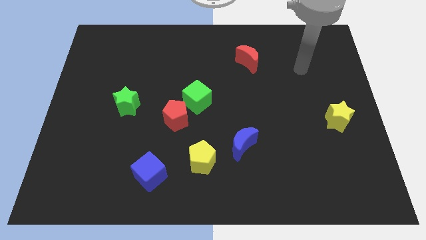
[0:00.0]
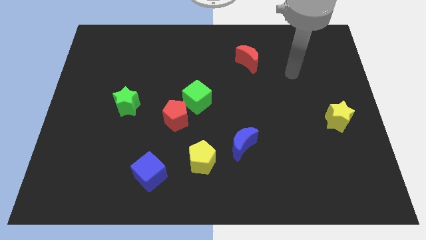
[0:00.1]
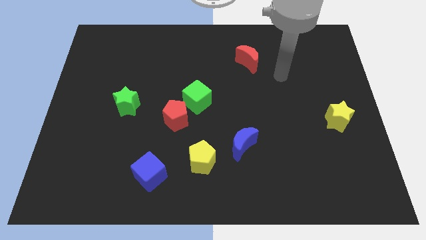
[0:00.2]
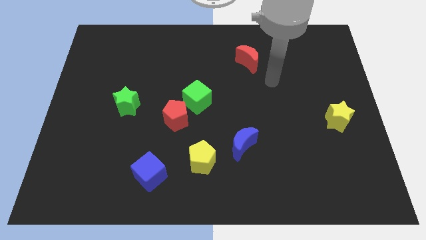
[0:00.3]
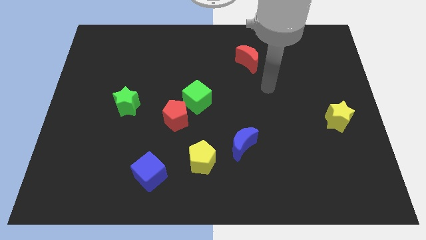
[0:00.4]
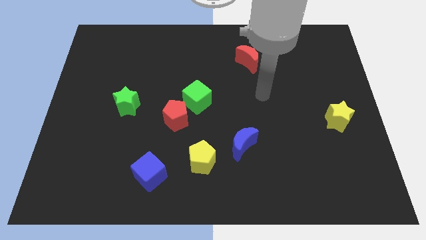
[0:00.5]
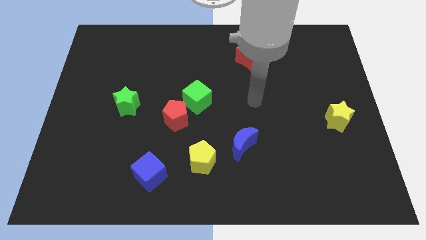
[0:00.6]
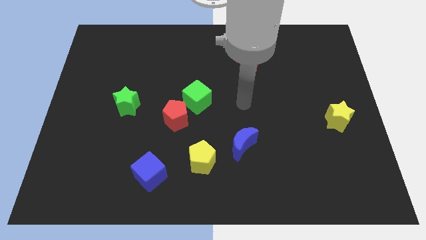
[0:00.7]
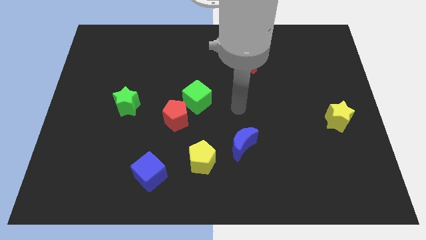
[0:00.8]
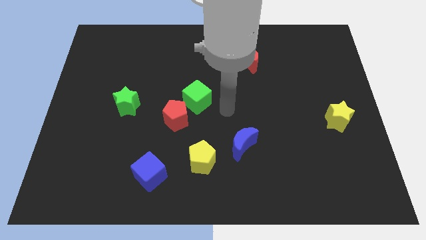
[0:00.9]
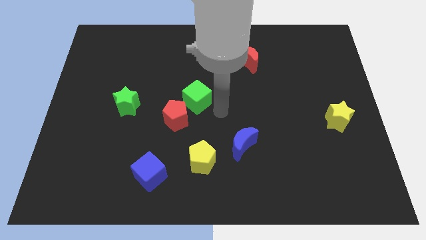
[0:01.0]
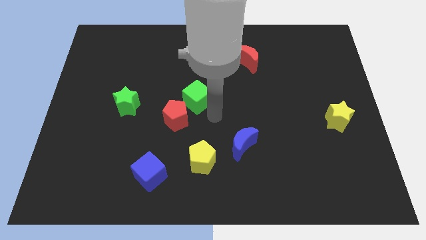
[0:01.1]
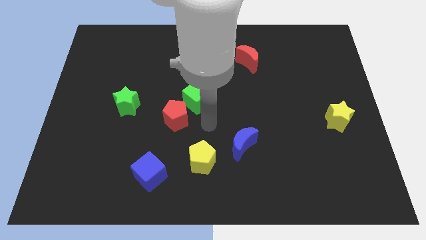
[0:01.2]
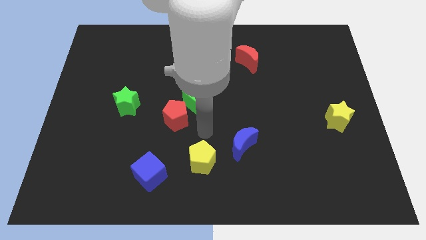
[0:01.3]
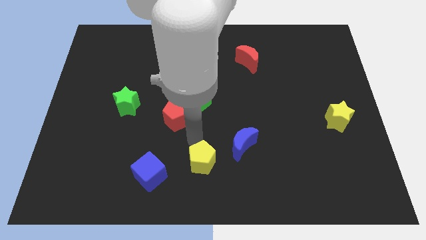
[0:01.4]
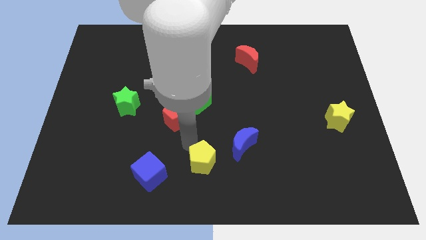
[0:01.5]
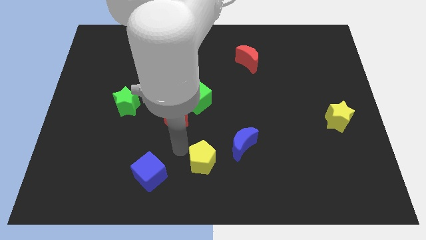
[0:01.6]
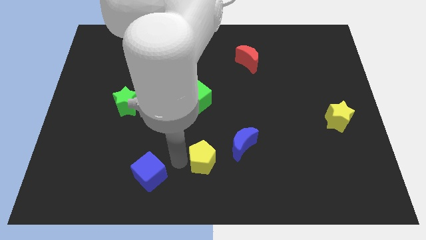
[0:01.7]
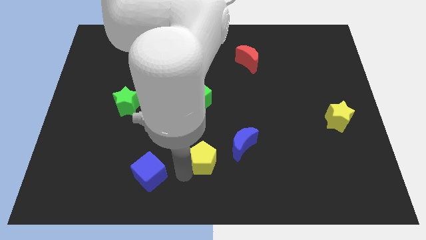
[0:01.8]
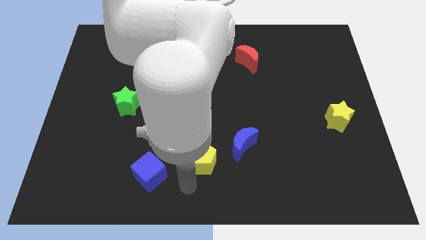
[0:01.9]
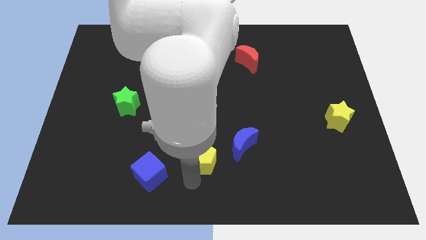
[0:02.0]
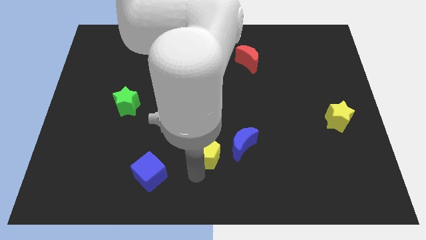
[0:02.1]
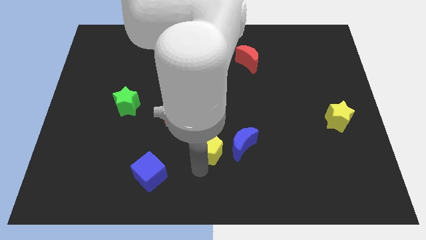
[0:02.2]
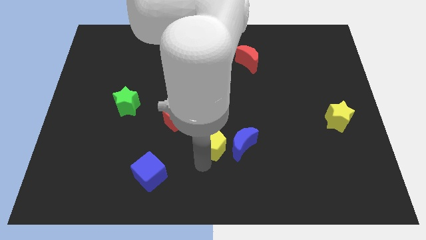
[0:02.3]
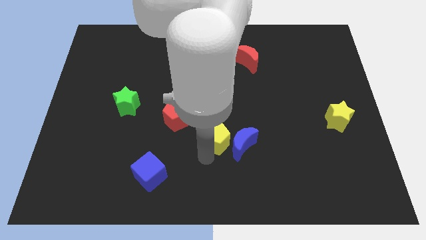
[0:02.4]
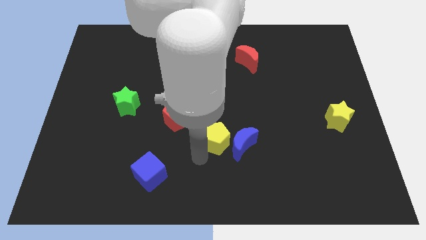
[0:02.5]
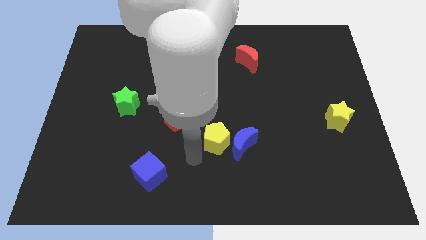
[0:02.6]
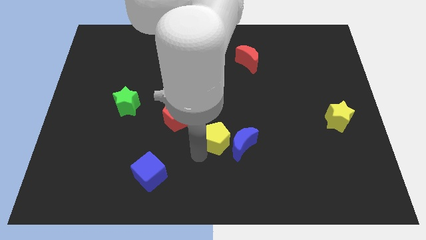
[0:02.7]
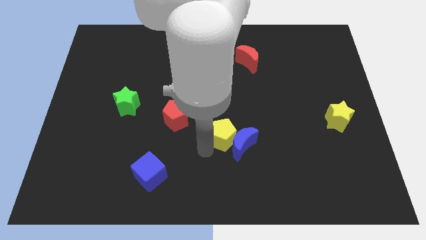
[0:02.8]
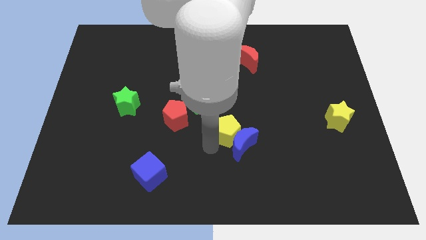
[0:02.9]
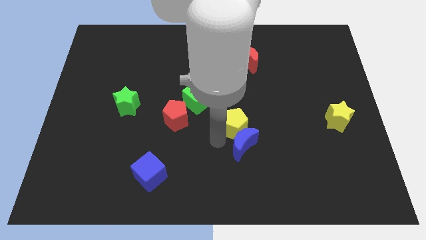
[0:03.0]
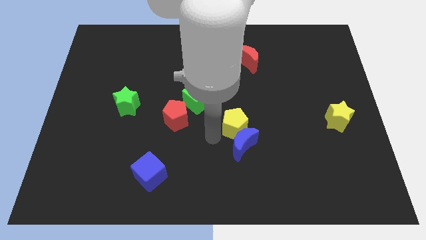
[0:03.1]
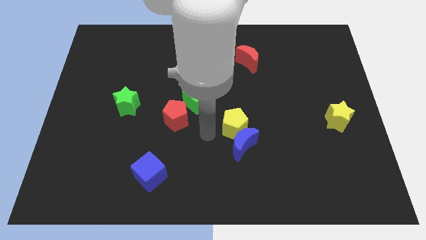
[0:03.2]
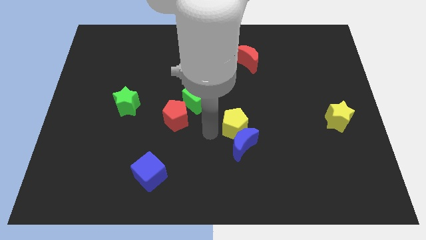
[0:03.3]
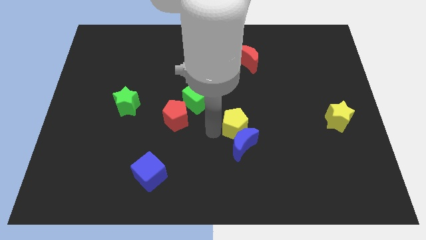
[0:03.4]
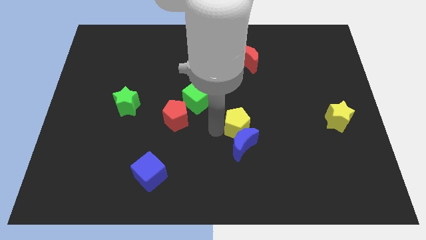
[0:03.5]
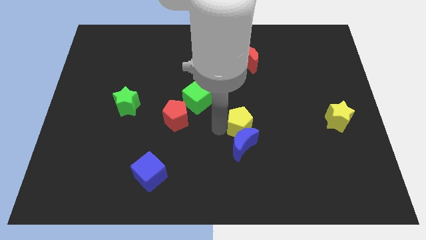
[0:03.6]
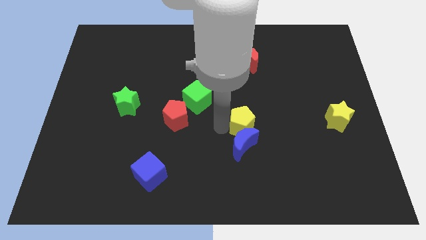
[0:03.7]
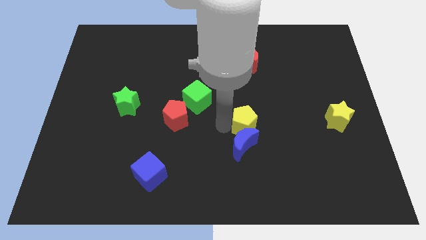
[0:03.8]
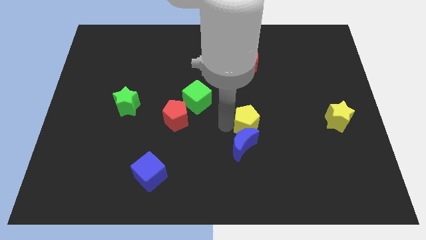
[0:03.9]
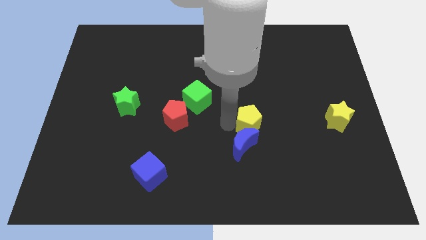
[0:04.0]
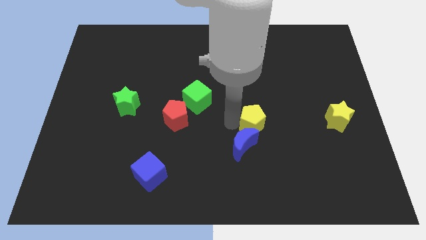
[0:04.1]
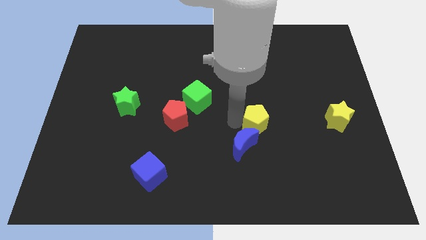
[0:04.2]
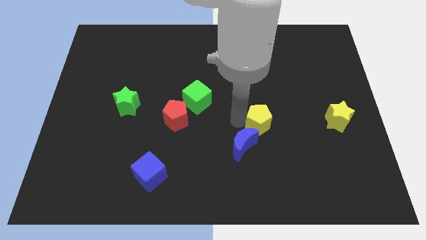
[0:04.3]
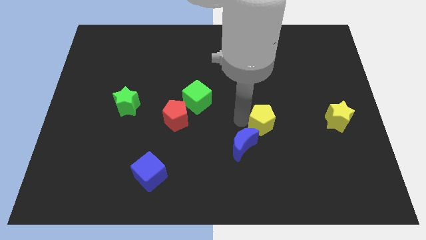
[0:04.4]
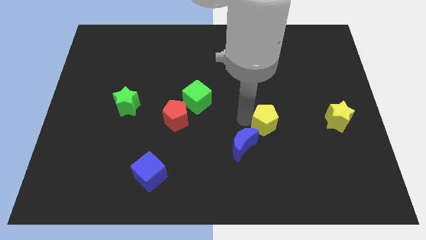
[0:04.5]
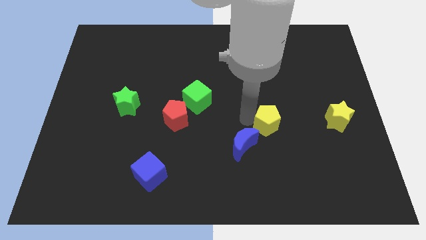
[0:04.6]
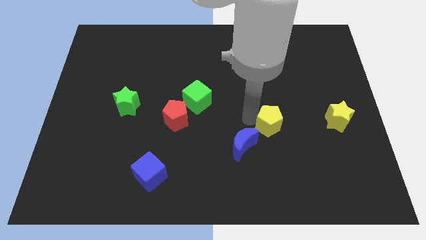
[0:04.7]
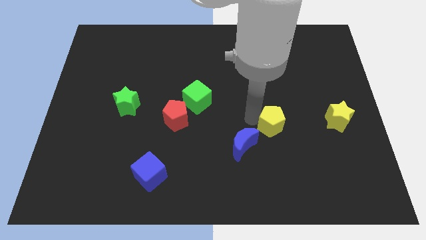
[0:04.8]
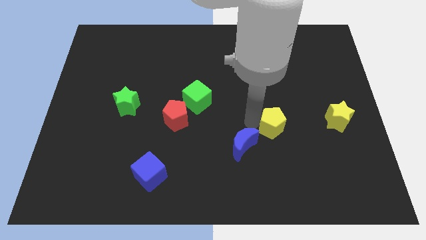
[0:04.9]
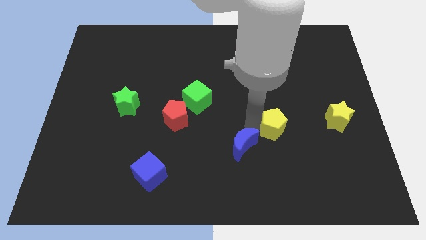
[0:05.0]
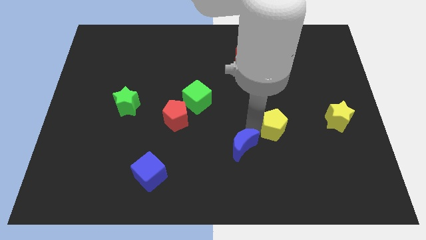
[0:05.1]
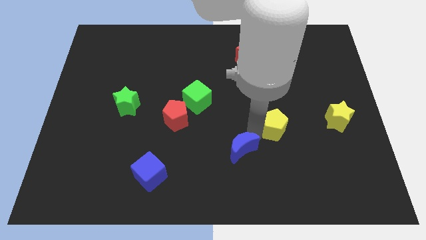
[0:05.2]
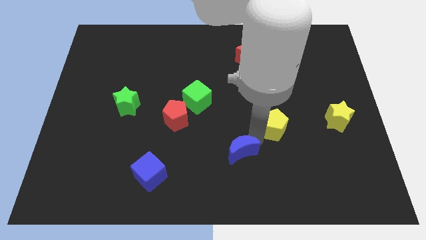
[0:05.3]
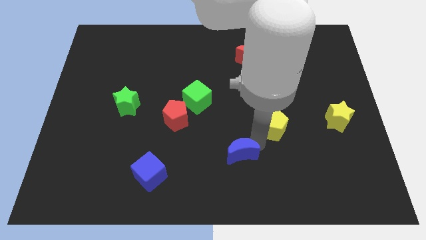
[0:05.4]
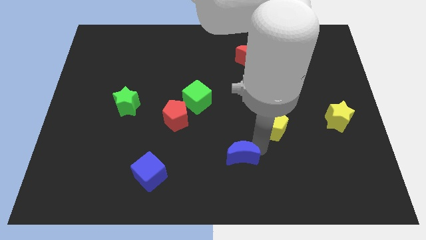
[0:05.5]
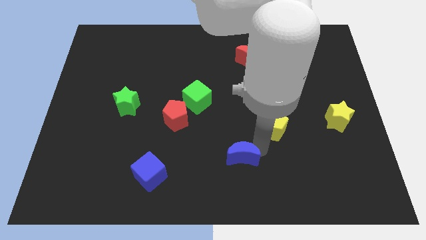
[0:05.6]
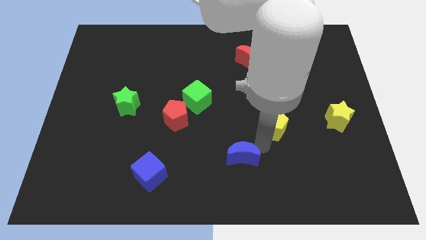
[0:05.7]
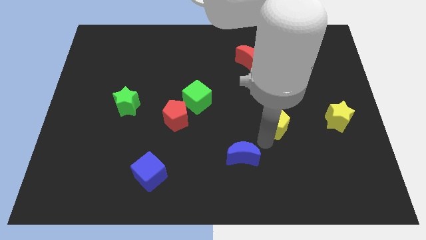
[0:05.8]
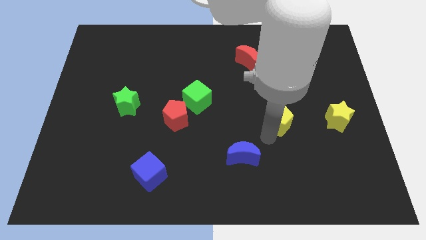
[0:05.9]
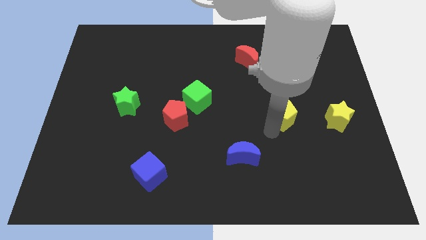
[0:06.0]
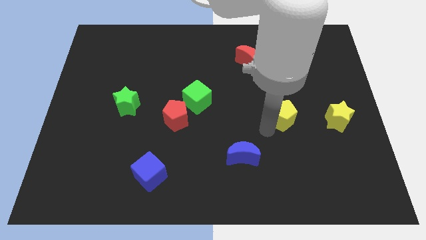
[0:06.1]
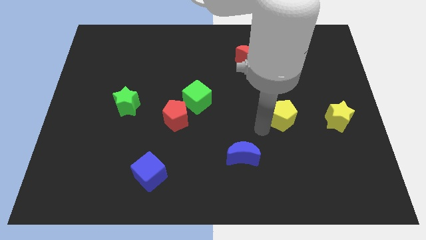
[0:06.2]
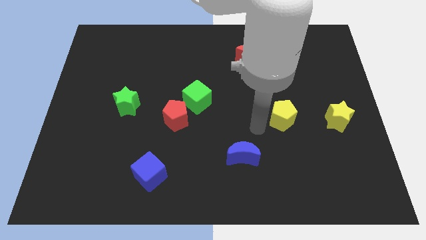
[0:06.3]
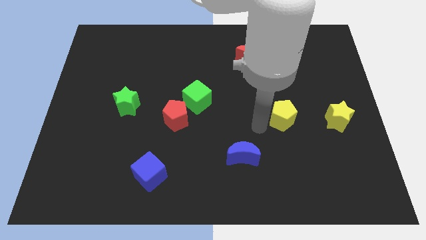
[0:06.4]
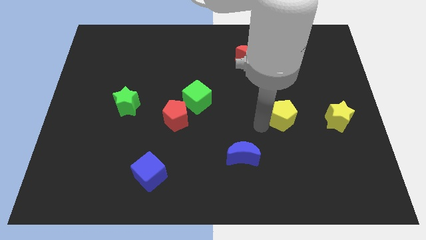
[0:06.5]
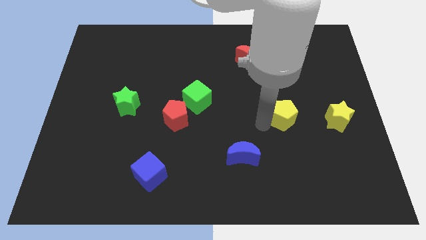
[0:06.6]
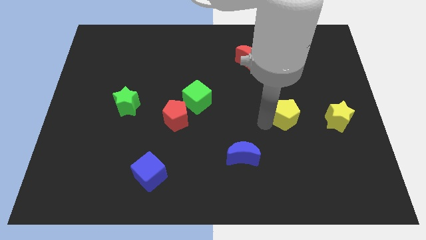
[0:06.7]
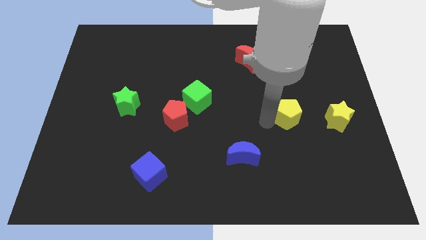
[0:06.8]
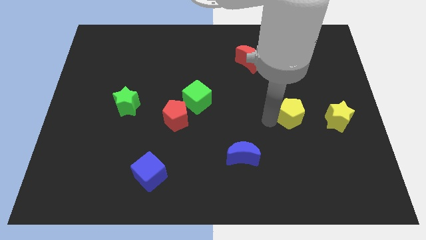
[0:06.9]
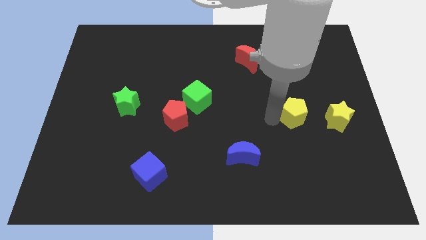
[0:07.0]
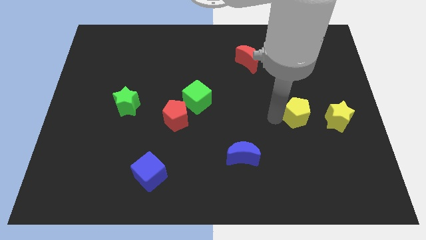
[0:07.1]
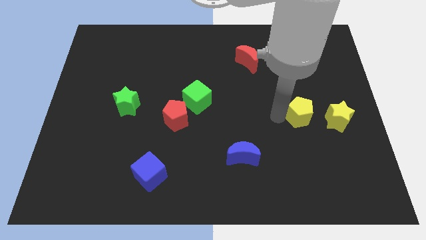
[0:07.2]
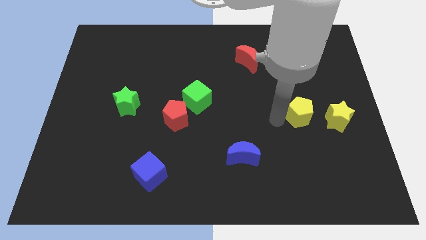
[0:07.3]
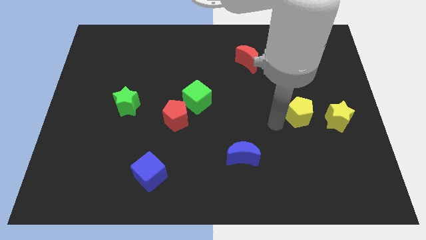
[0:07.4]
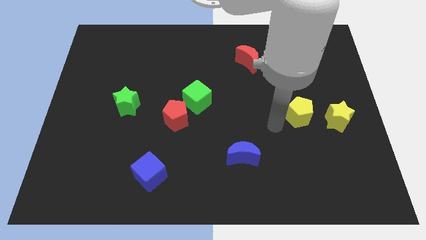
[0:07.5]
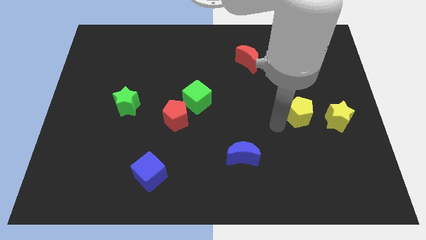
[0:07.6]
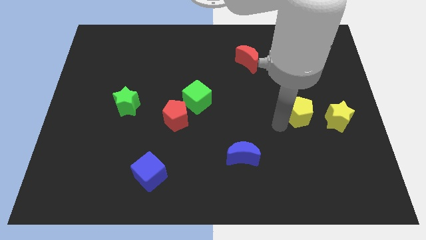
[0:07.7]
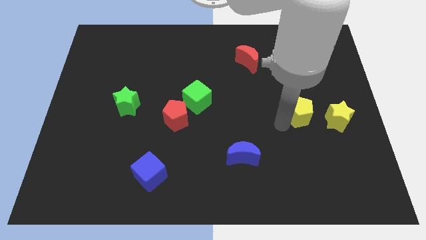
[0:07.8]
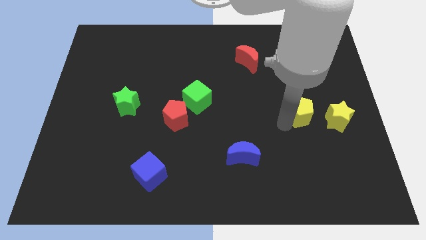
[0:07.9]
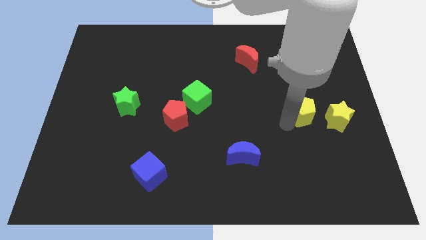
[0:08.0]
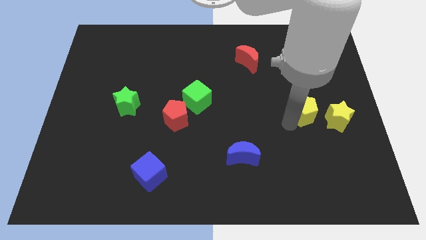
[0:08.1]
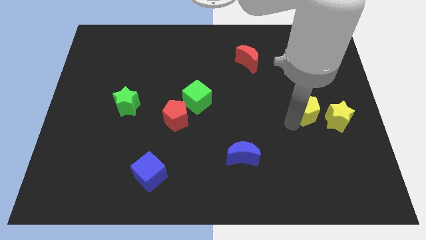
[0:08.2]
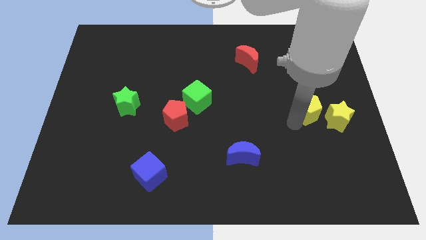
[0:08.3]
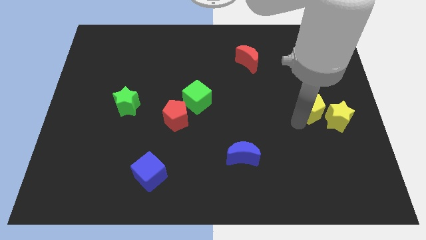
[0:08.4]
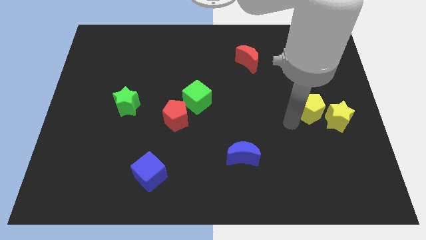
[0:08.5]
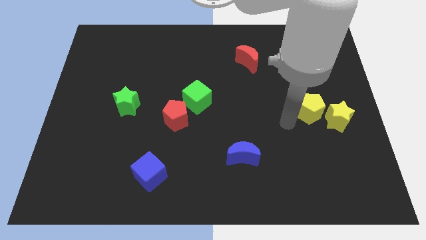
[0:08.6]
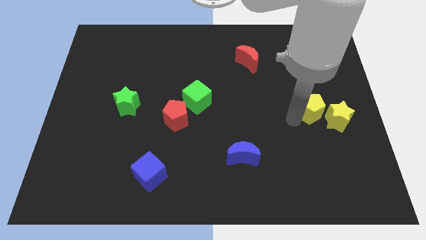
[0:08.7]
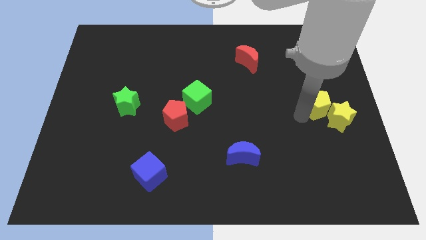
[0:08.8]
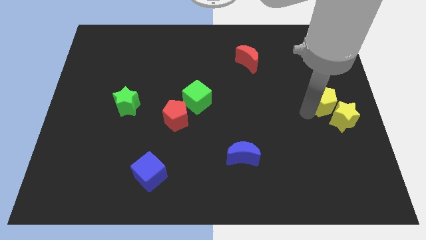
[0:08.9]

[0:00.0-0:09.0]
push the yellow pentagon to the center right
